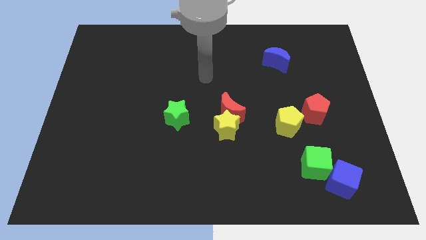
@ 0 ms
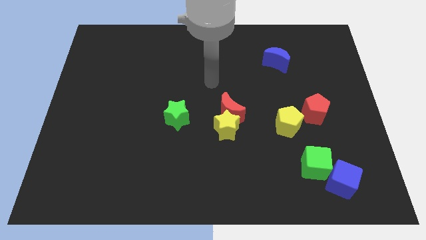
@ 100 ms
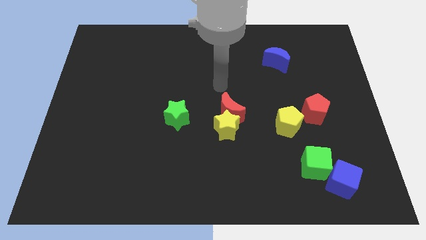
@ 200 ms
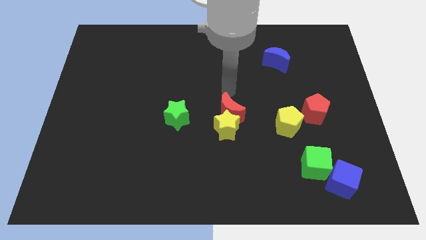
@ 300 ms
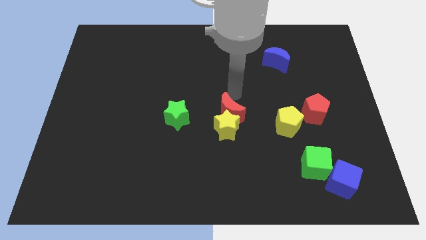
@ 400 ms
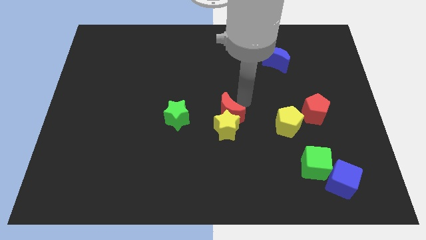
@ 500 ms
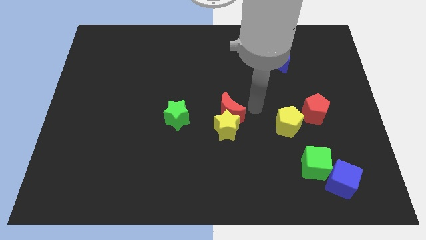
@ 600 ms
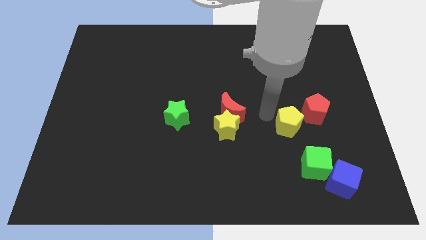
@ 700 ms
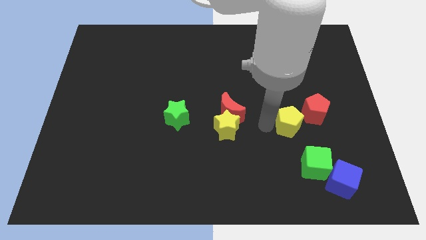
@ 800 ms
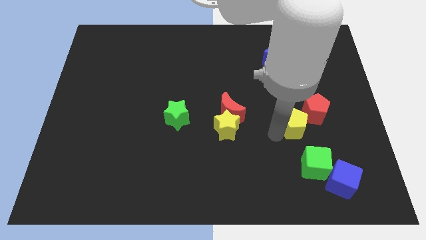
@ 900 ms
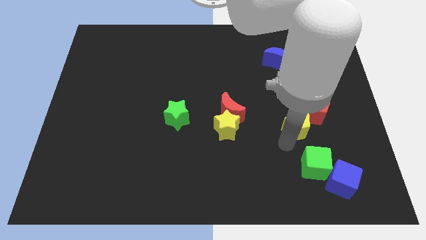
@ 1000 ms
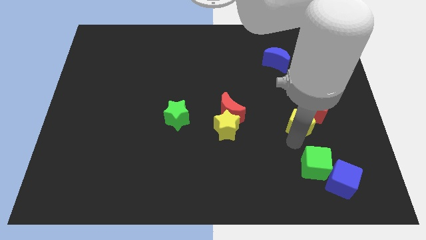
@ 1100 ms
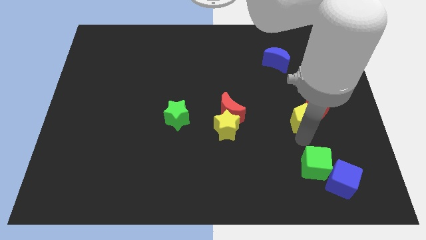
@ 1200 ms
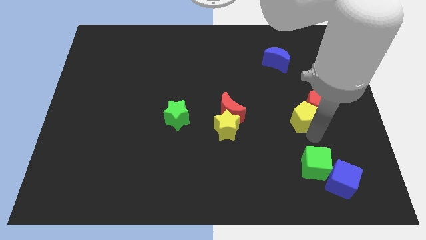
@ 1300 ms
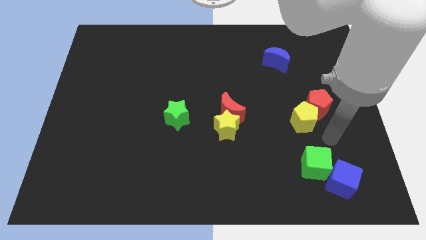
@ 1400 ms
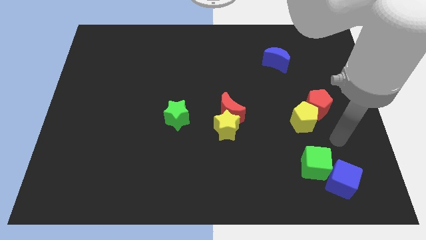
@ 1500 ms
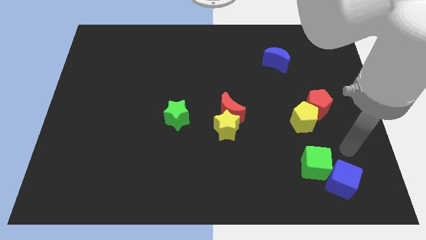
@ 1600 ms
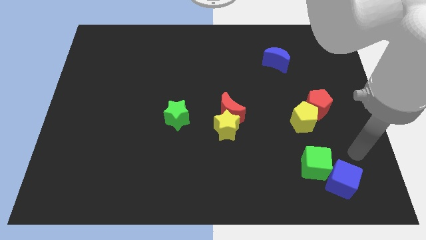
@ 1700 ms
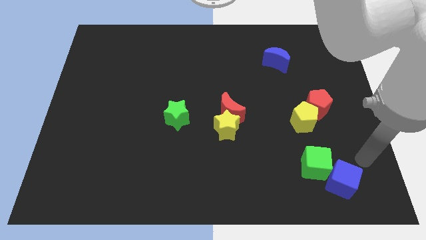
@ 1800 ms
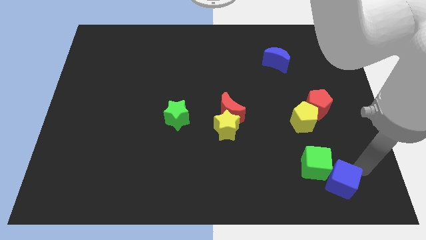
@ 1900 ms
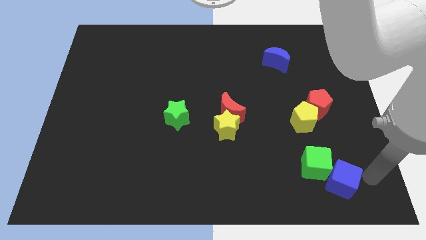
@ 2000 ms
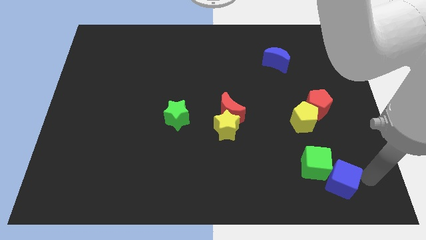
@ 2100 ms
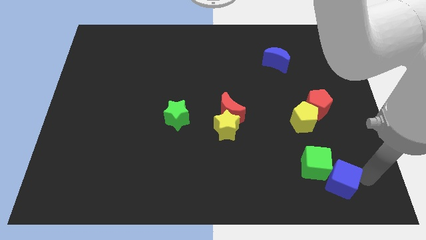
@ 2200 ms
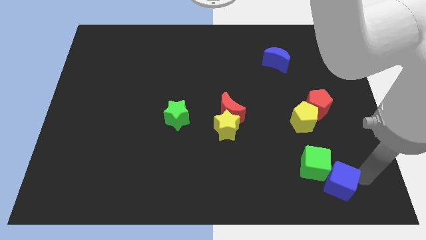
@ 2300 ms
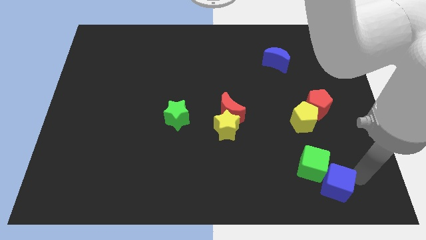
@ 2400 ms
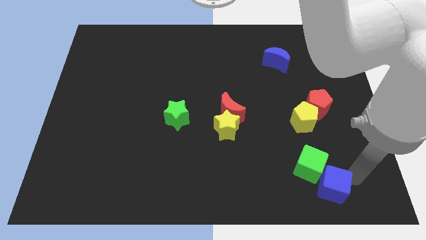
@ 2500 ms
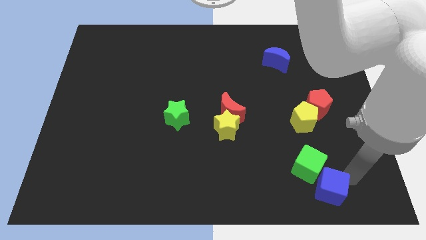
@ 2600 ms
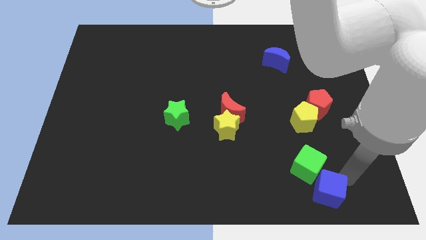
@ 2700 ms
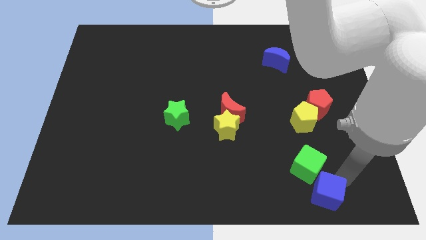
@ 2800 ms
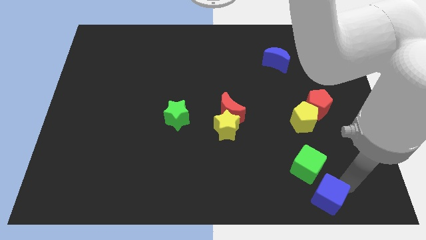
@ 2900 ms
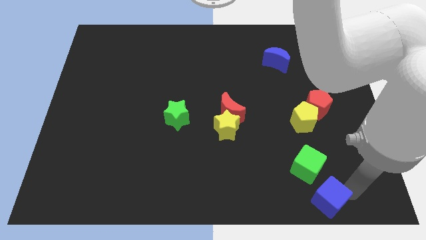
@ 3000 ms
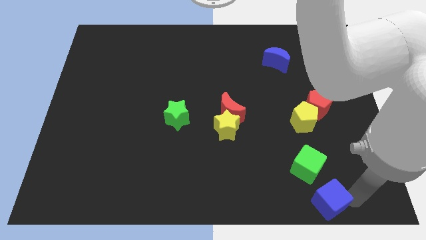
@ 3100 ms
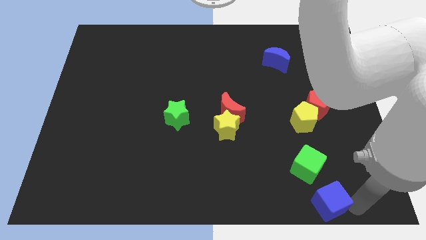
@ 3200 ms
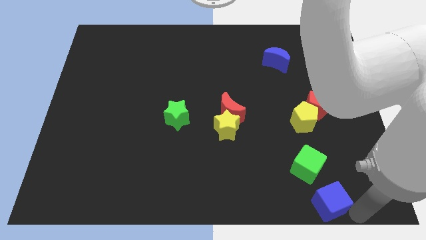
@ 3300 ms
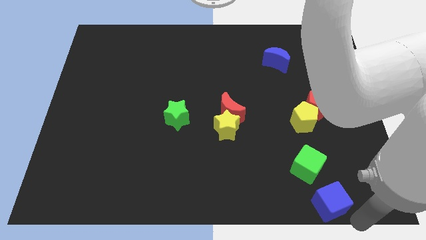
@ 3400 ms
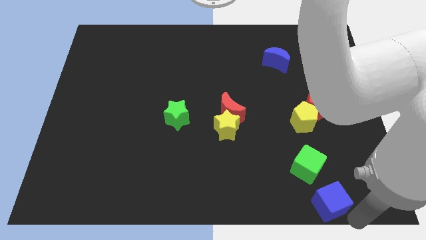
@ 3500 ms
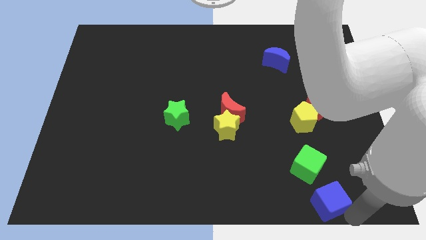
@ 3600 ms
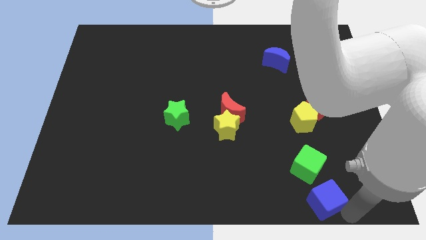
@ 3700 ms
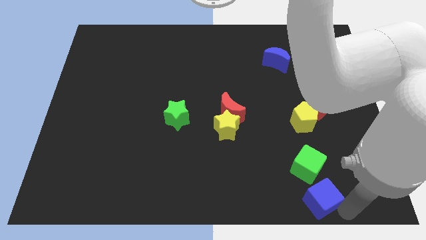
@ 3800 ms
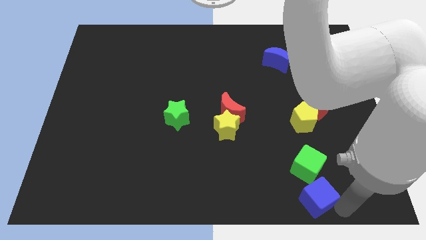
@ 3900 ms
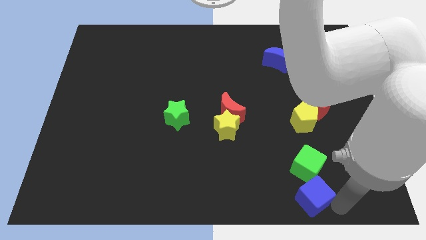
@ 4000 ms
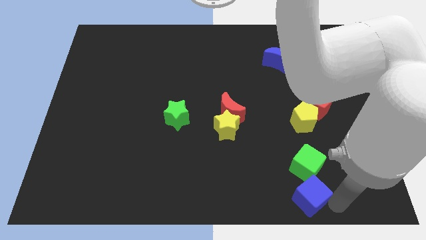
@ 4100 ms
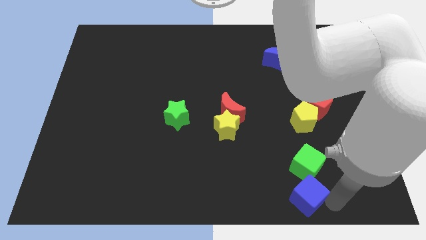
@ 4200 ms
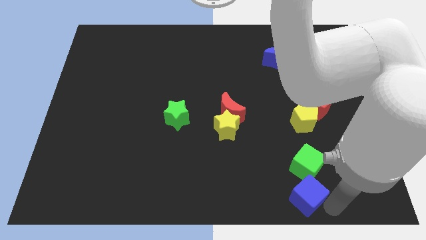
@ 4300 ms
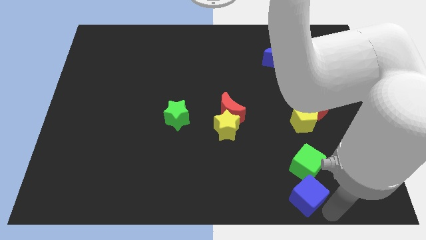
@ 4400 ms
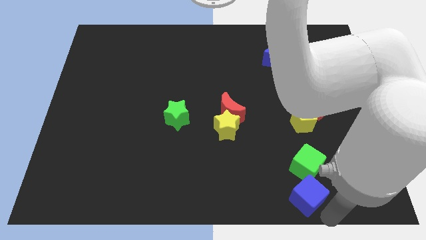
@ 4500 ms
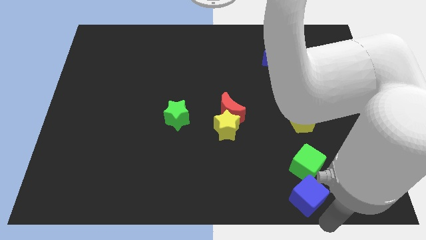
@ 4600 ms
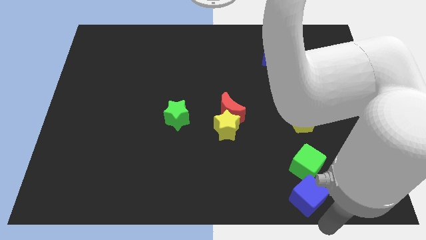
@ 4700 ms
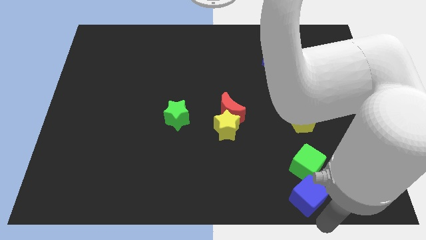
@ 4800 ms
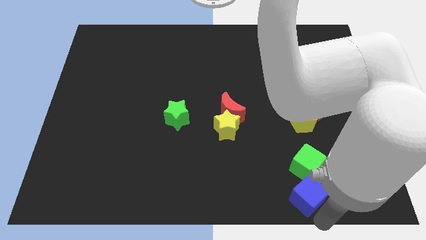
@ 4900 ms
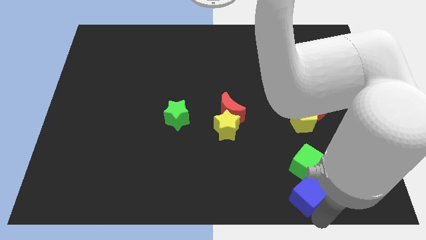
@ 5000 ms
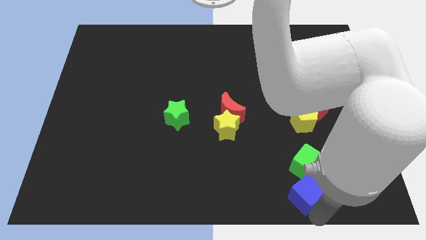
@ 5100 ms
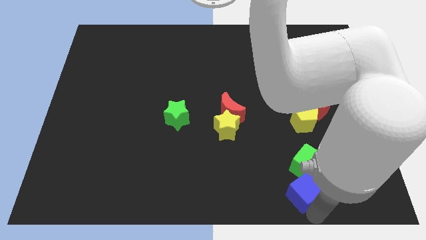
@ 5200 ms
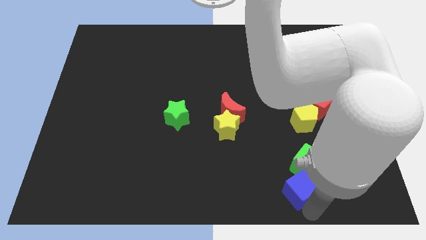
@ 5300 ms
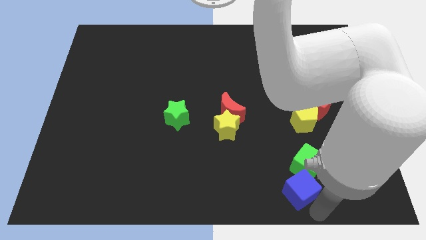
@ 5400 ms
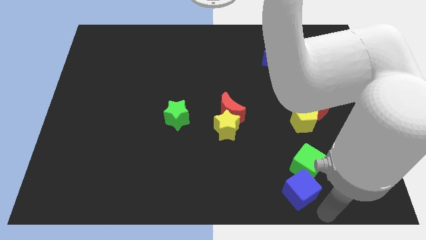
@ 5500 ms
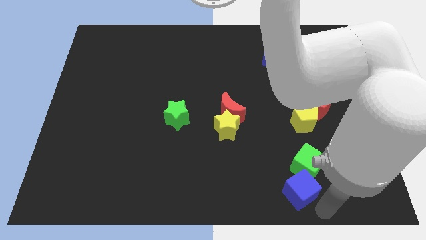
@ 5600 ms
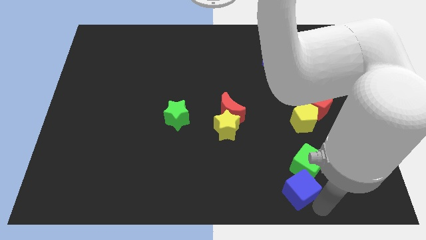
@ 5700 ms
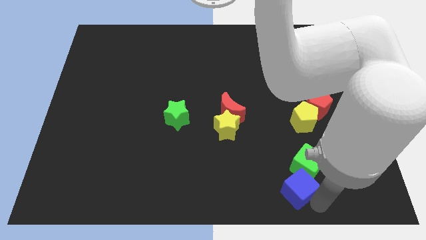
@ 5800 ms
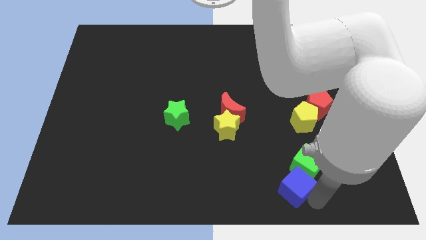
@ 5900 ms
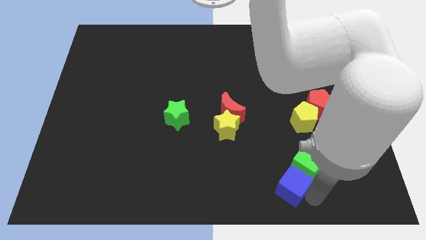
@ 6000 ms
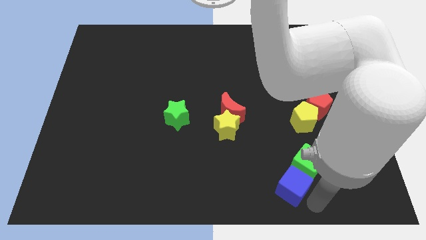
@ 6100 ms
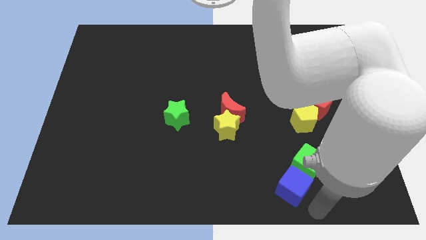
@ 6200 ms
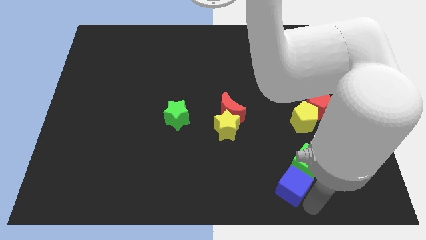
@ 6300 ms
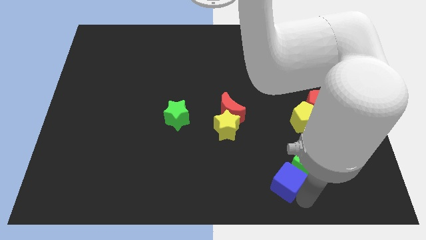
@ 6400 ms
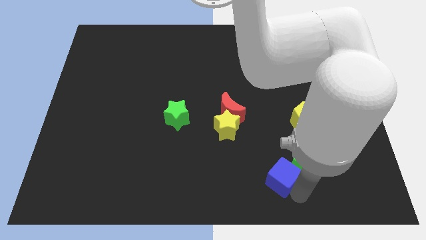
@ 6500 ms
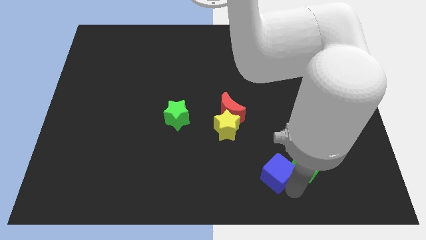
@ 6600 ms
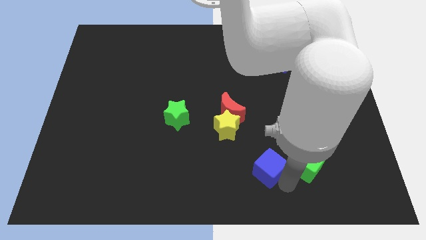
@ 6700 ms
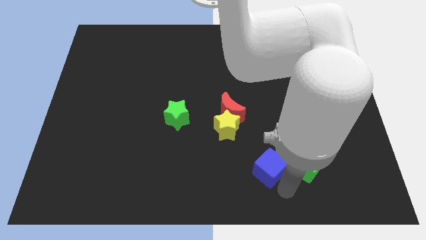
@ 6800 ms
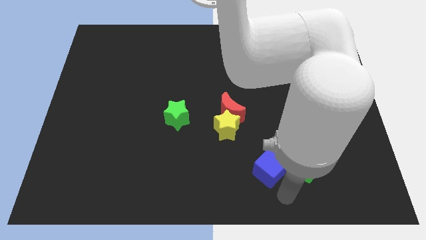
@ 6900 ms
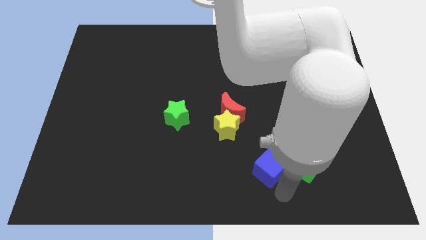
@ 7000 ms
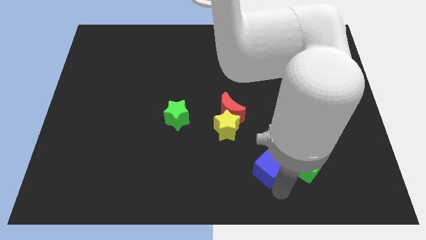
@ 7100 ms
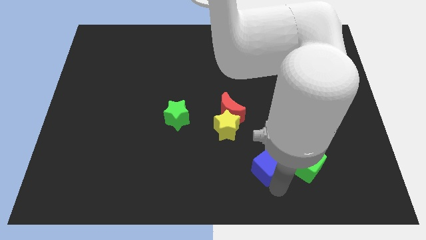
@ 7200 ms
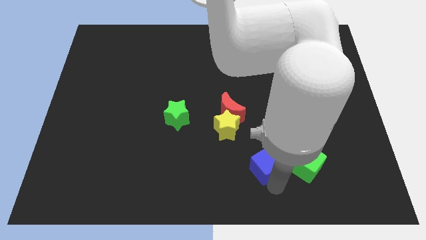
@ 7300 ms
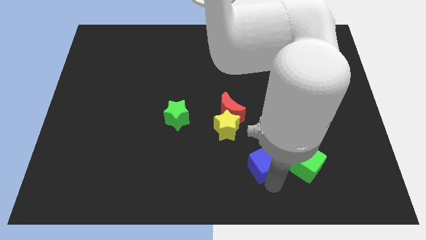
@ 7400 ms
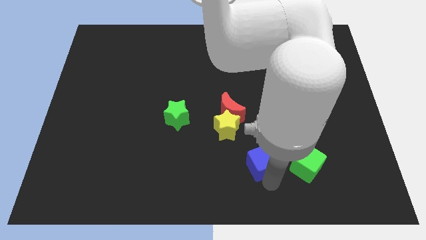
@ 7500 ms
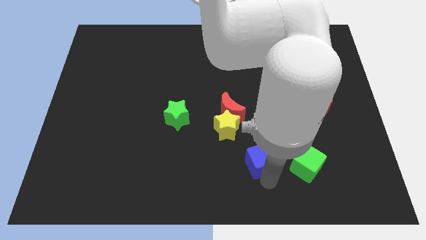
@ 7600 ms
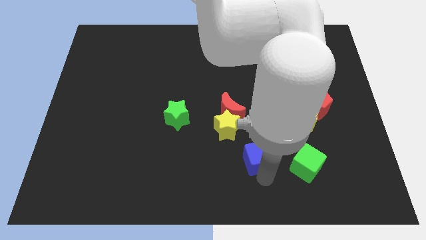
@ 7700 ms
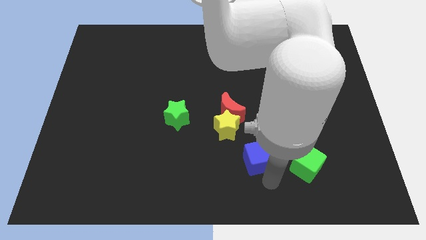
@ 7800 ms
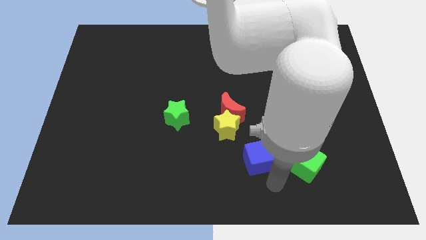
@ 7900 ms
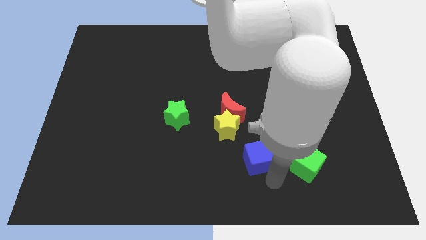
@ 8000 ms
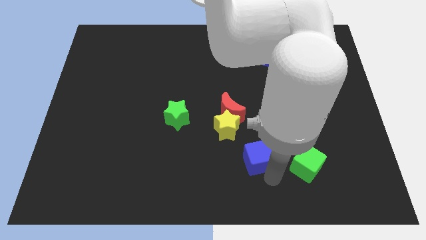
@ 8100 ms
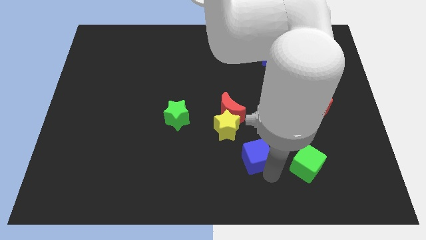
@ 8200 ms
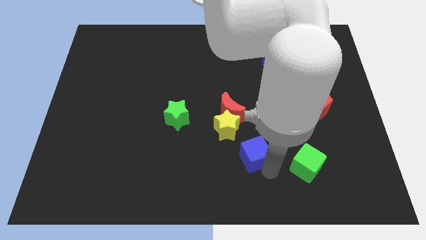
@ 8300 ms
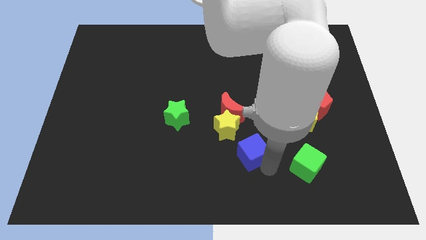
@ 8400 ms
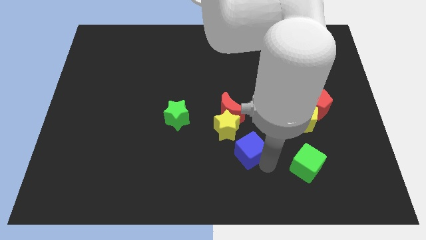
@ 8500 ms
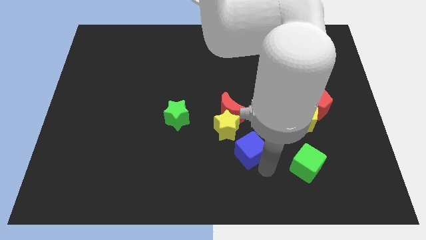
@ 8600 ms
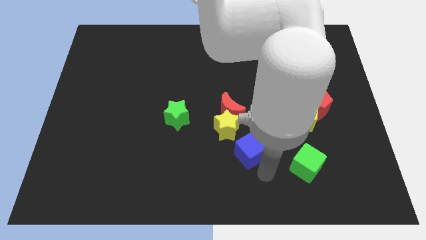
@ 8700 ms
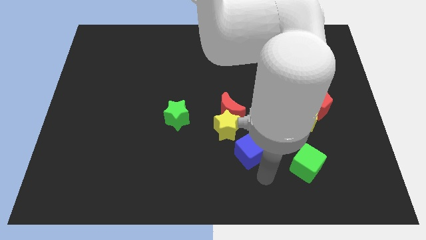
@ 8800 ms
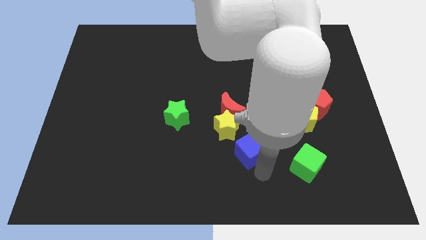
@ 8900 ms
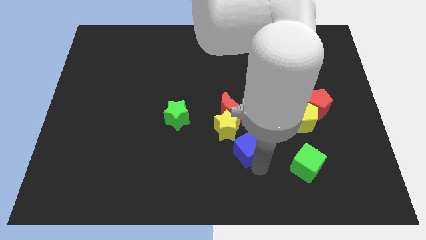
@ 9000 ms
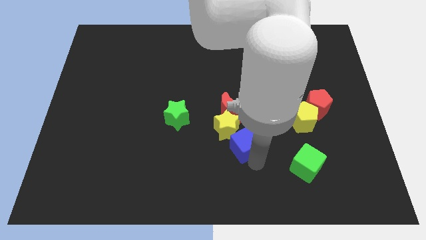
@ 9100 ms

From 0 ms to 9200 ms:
slide the blue cube towards the yellow star
